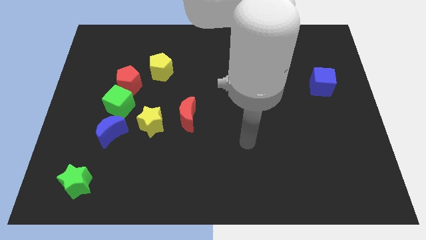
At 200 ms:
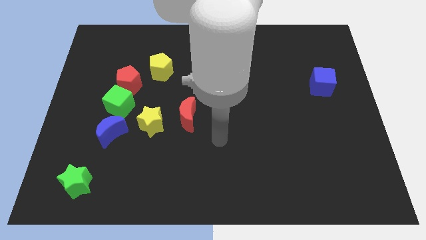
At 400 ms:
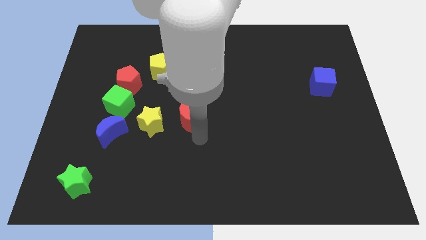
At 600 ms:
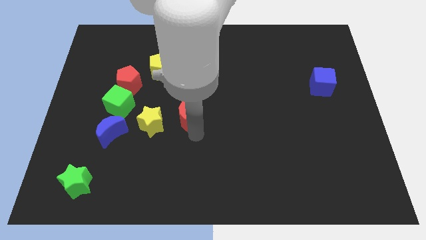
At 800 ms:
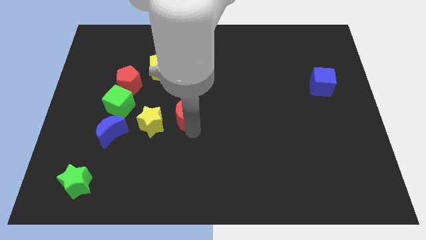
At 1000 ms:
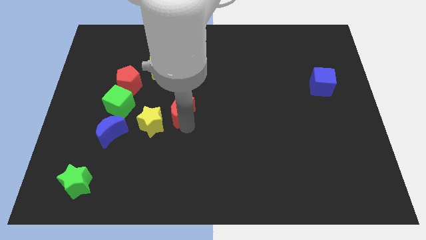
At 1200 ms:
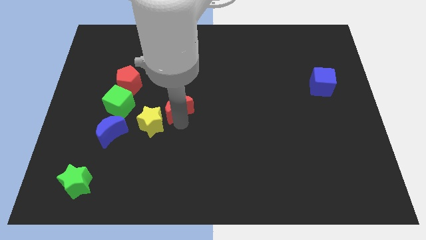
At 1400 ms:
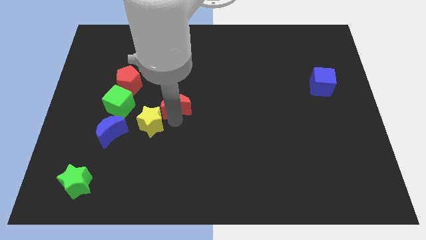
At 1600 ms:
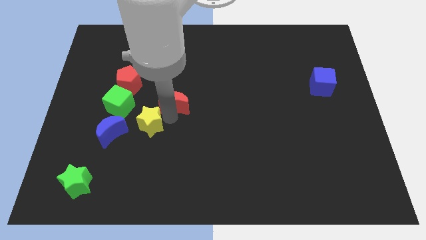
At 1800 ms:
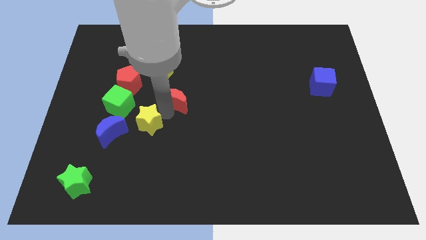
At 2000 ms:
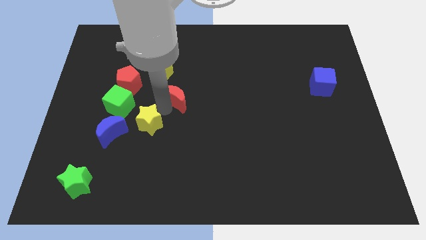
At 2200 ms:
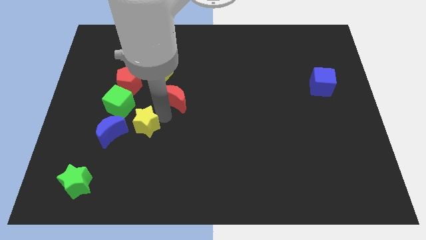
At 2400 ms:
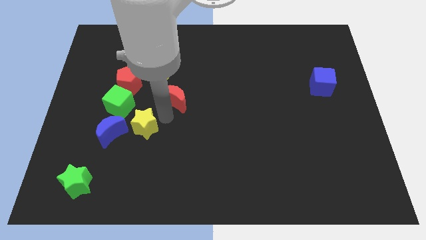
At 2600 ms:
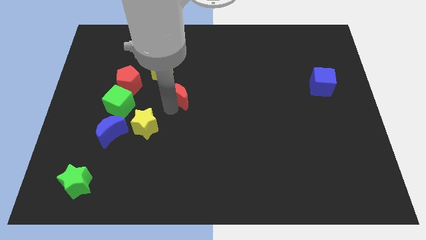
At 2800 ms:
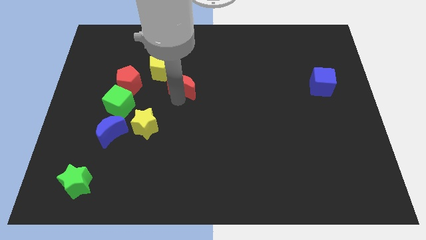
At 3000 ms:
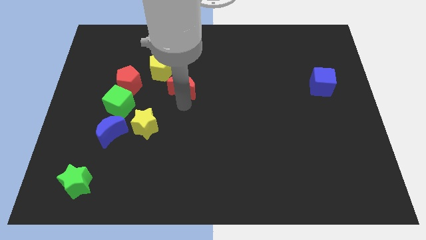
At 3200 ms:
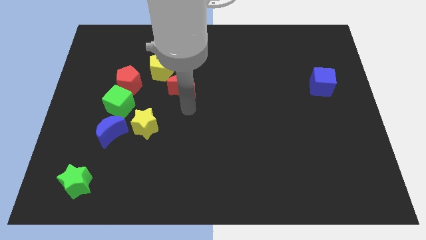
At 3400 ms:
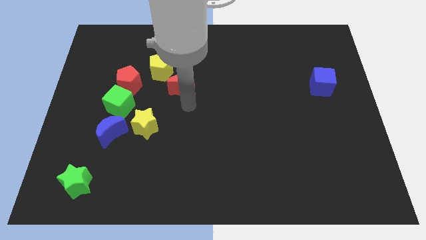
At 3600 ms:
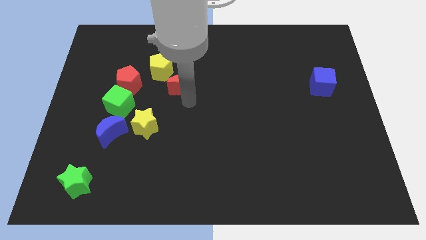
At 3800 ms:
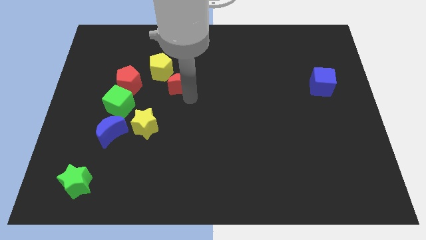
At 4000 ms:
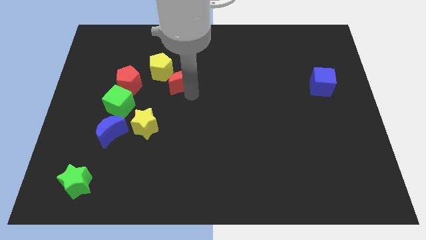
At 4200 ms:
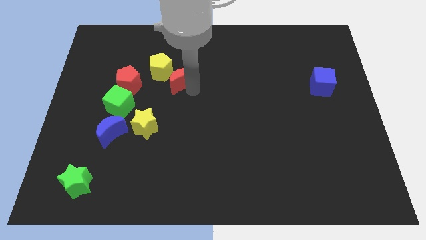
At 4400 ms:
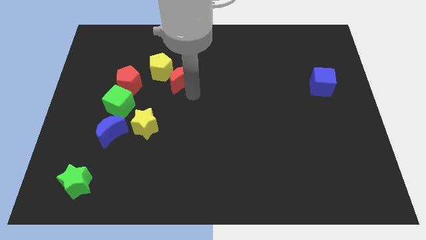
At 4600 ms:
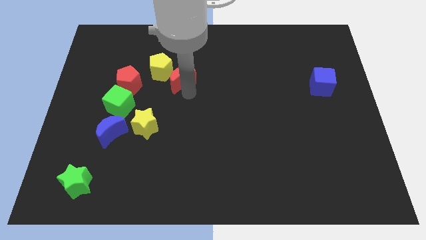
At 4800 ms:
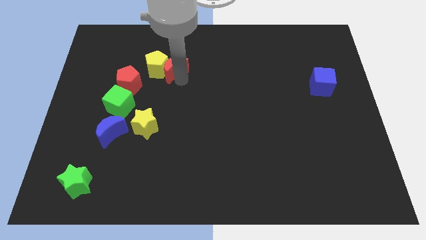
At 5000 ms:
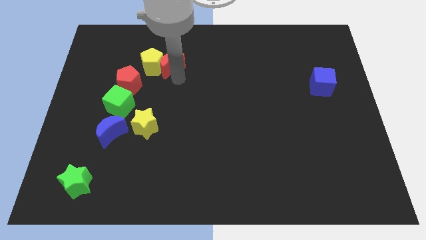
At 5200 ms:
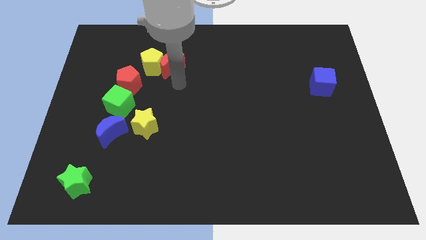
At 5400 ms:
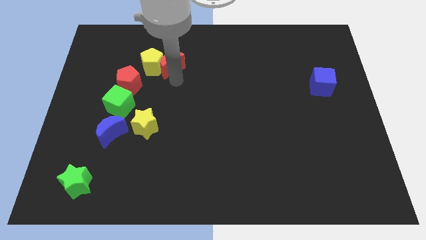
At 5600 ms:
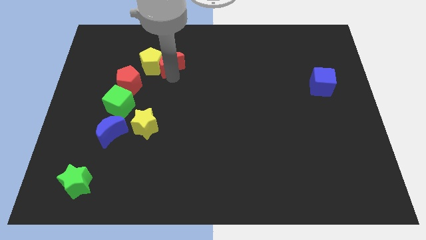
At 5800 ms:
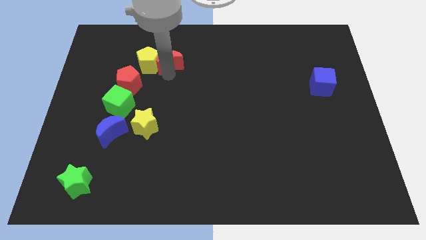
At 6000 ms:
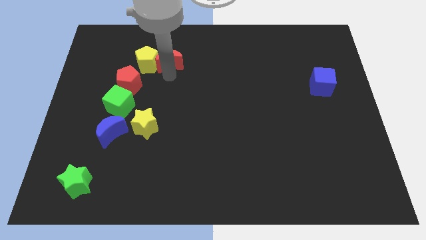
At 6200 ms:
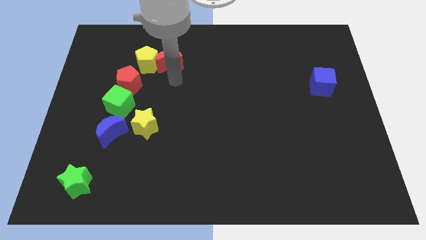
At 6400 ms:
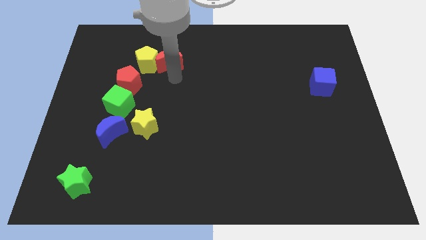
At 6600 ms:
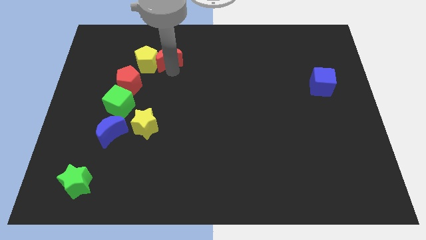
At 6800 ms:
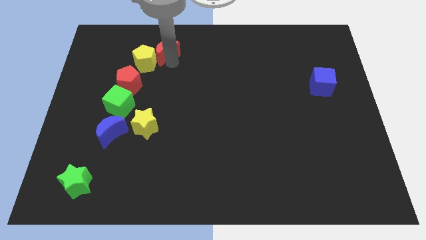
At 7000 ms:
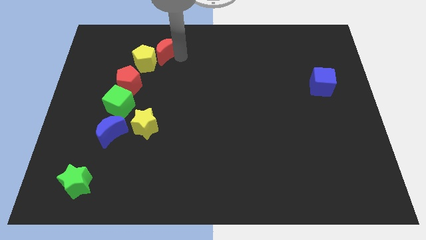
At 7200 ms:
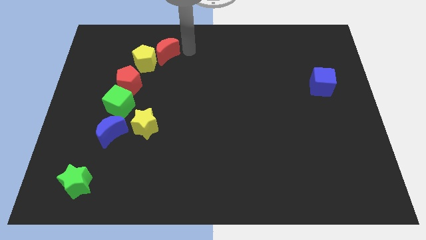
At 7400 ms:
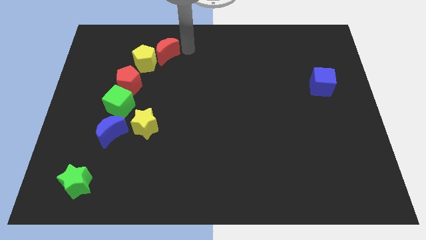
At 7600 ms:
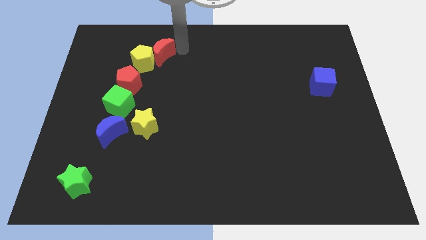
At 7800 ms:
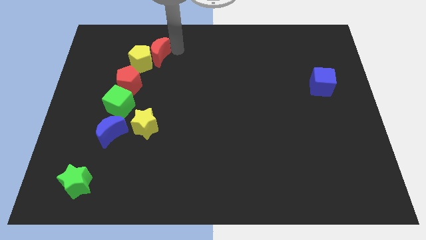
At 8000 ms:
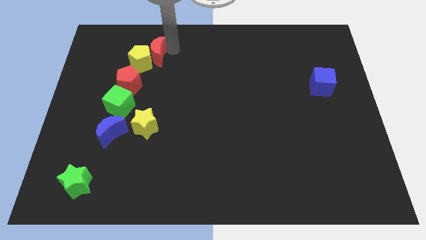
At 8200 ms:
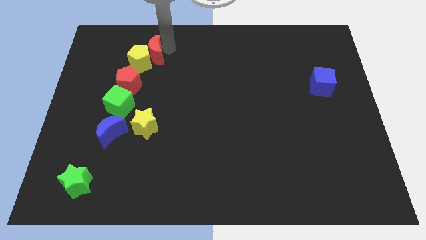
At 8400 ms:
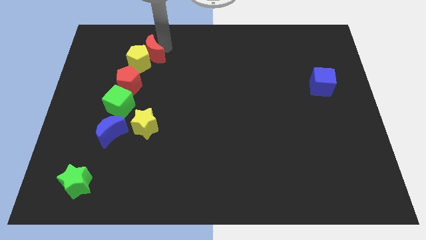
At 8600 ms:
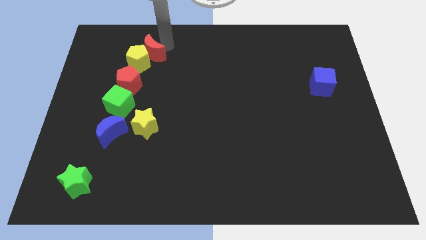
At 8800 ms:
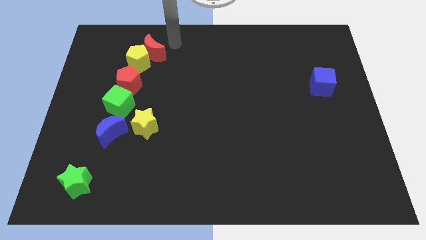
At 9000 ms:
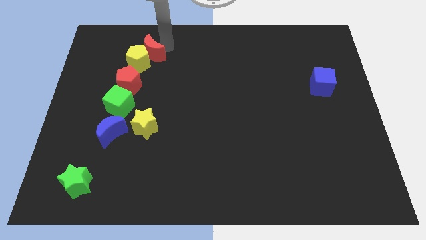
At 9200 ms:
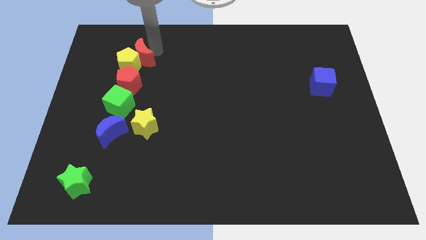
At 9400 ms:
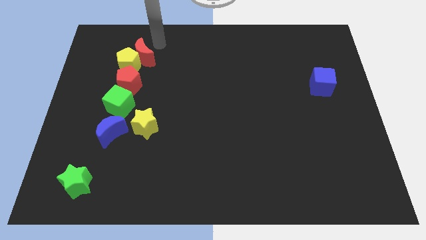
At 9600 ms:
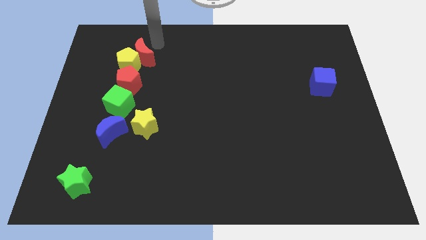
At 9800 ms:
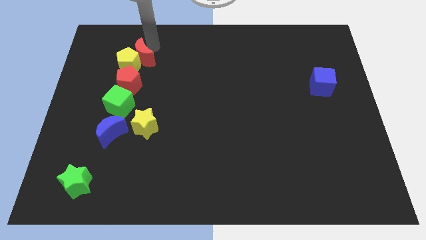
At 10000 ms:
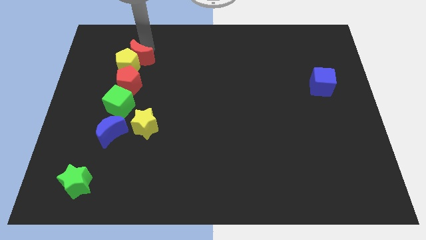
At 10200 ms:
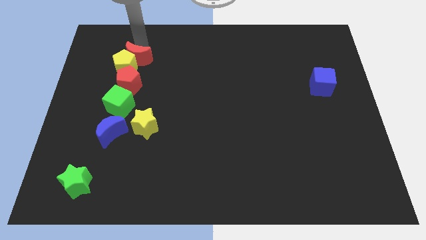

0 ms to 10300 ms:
slide the red moon to the top of the green cube
